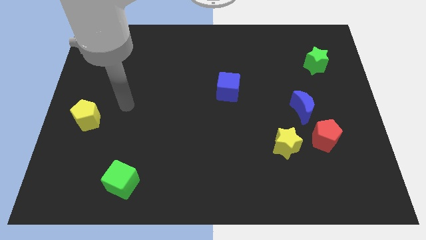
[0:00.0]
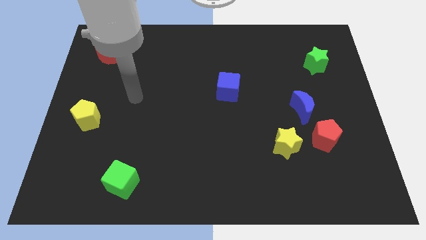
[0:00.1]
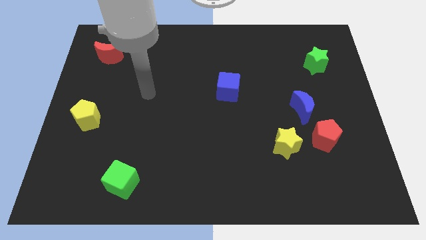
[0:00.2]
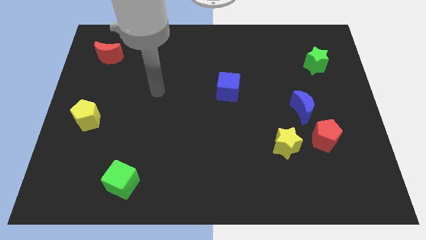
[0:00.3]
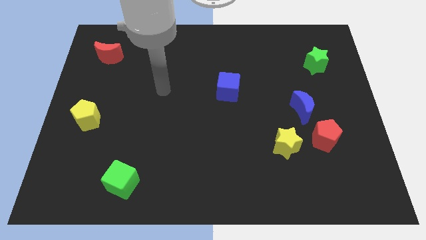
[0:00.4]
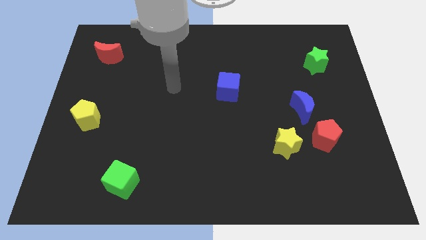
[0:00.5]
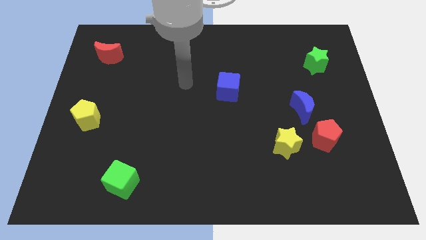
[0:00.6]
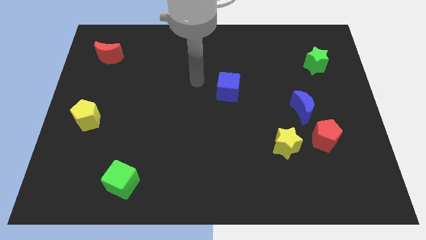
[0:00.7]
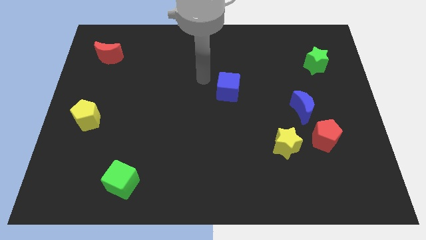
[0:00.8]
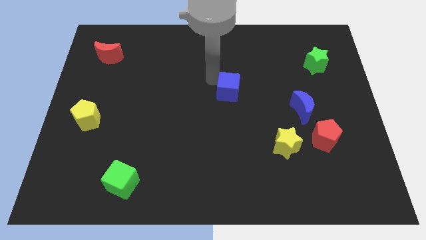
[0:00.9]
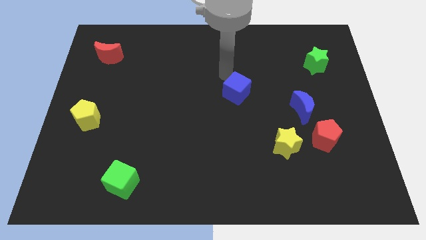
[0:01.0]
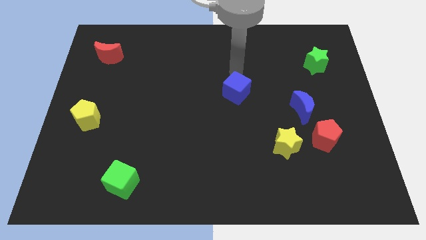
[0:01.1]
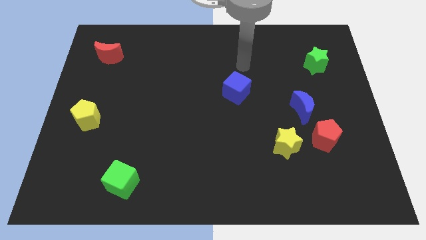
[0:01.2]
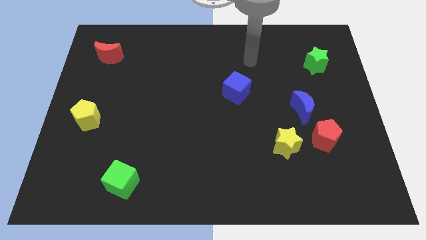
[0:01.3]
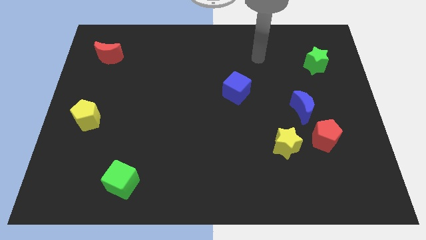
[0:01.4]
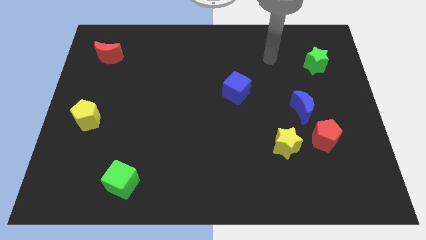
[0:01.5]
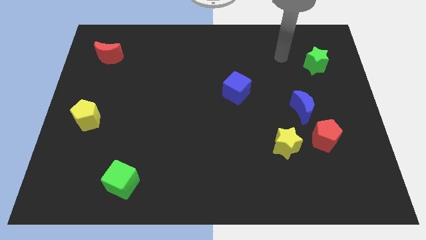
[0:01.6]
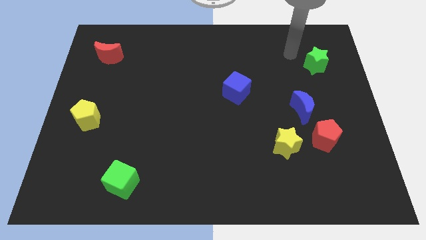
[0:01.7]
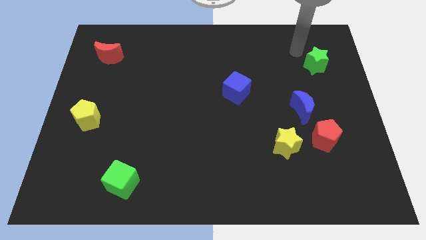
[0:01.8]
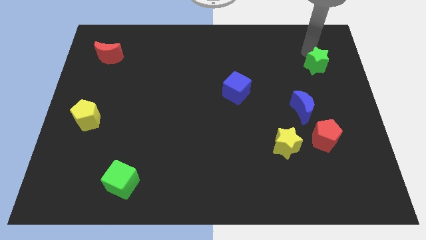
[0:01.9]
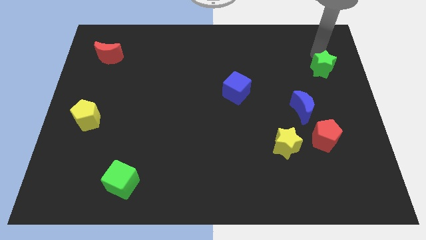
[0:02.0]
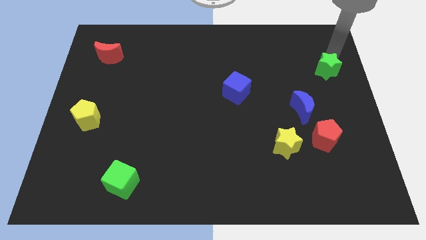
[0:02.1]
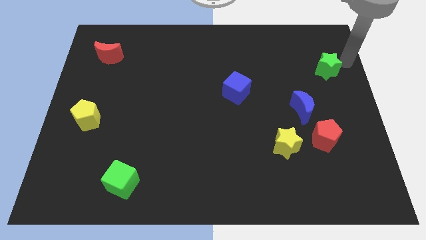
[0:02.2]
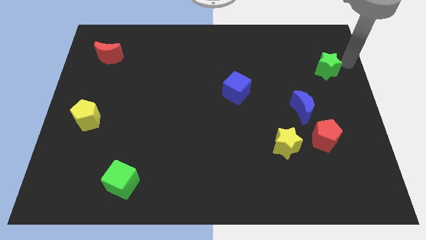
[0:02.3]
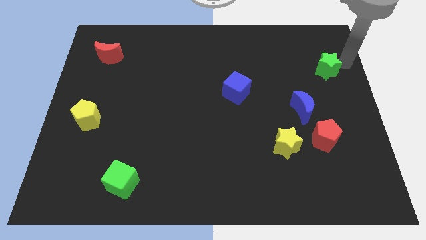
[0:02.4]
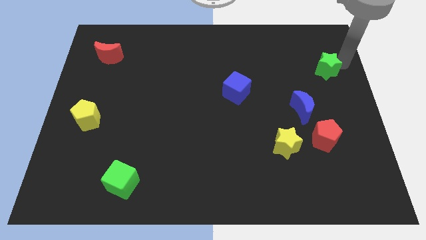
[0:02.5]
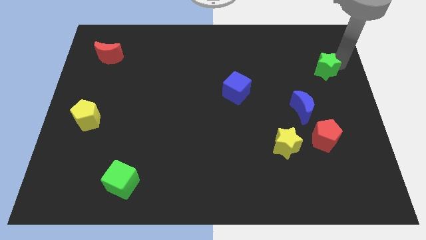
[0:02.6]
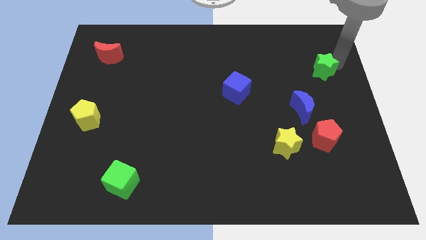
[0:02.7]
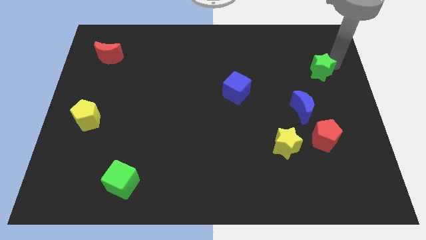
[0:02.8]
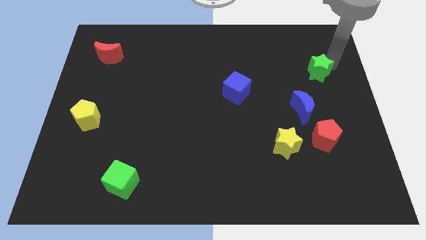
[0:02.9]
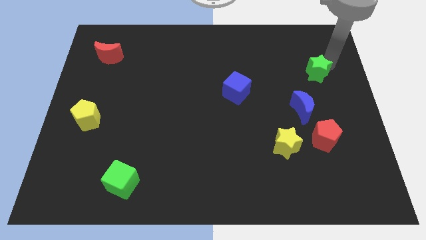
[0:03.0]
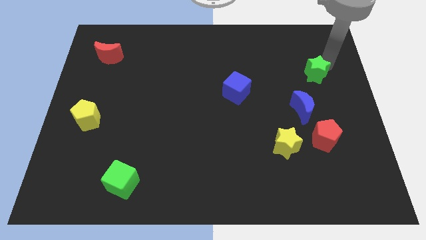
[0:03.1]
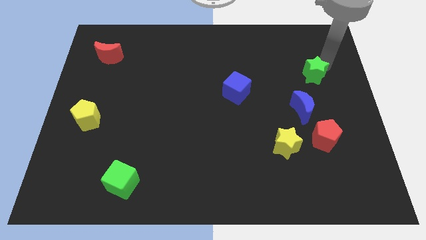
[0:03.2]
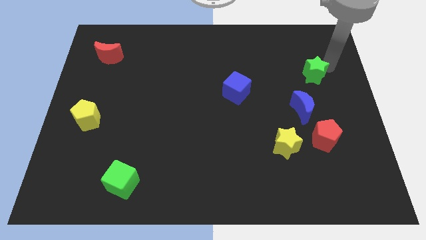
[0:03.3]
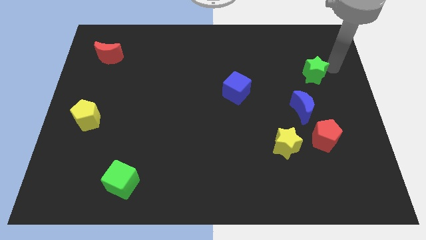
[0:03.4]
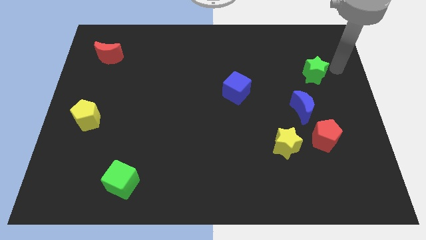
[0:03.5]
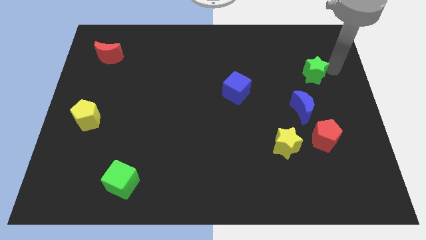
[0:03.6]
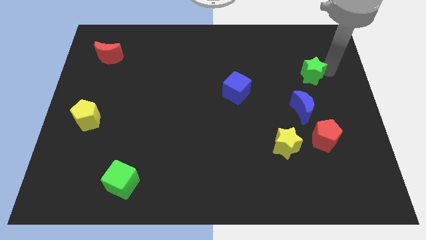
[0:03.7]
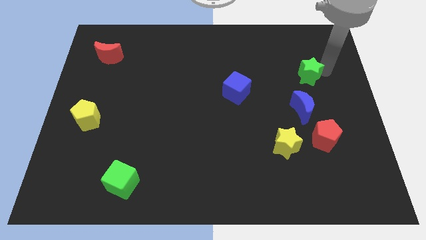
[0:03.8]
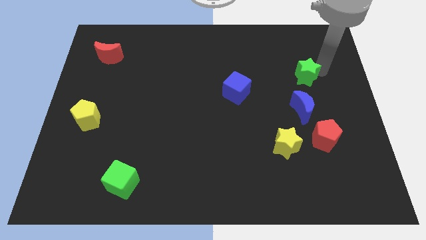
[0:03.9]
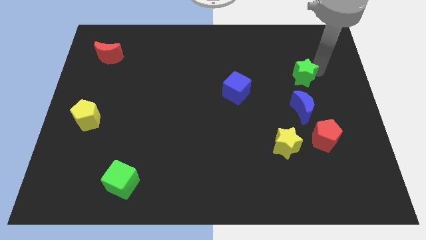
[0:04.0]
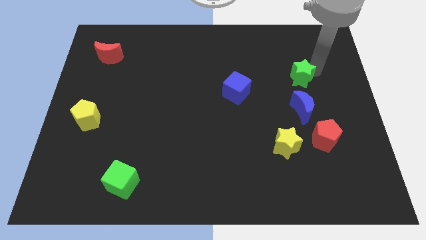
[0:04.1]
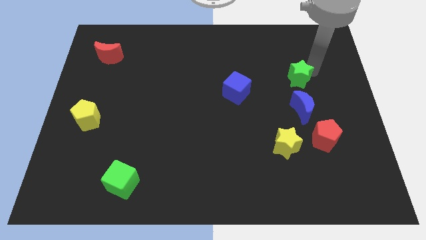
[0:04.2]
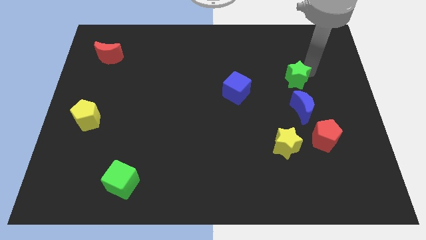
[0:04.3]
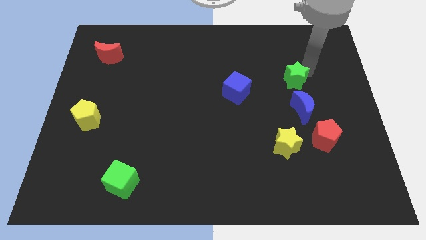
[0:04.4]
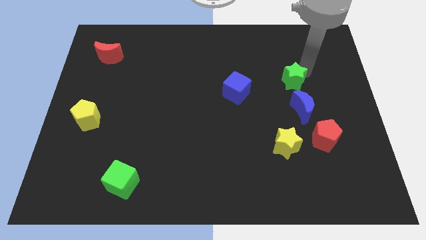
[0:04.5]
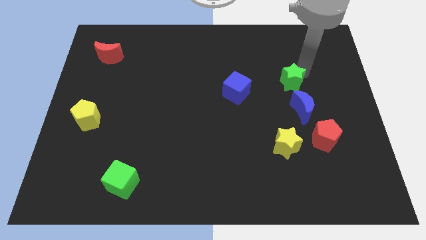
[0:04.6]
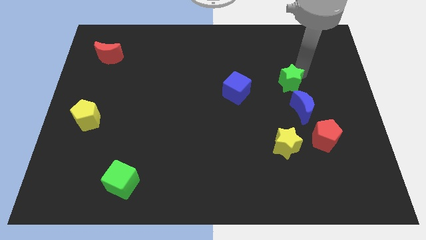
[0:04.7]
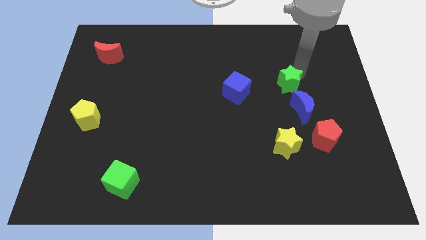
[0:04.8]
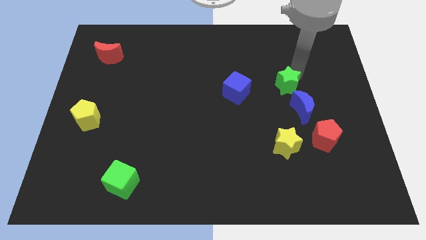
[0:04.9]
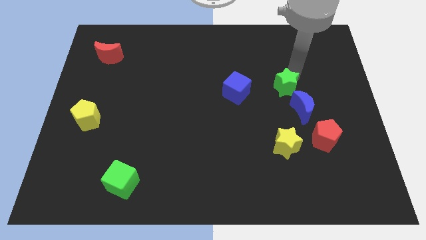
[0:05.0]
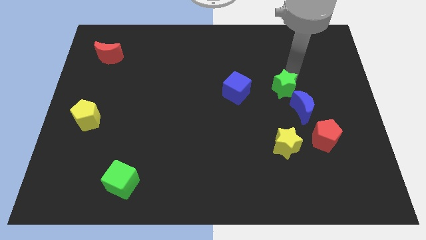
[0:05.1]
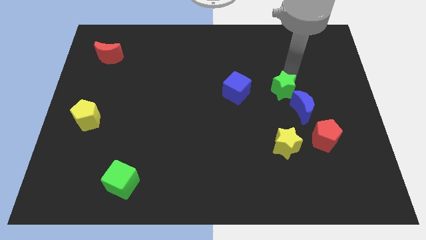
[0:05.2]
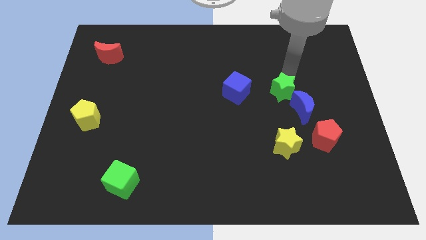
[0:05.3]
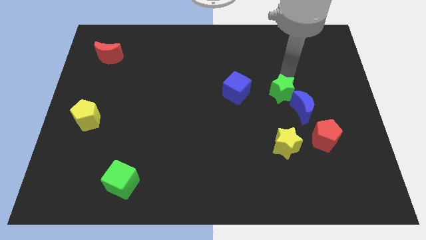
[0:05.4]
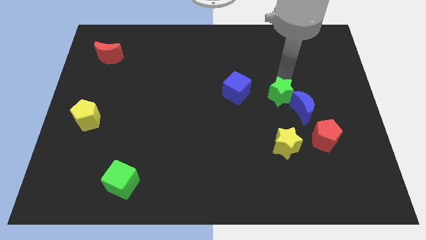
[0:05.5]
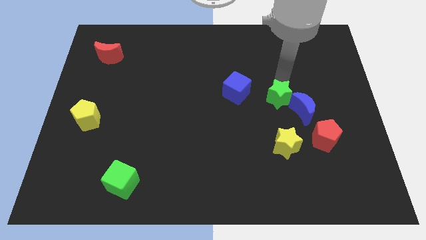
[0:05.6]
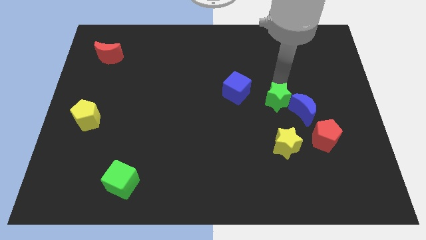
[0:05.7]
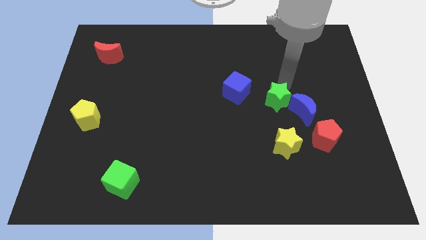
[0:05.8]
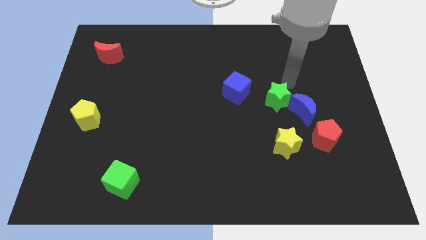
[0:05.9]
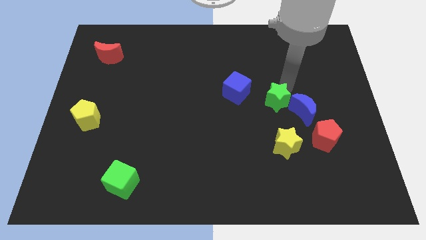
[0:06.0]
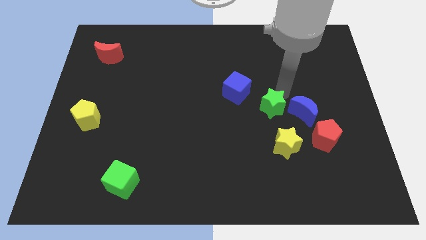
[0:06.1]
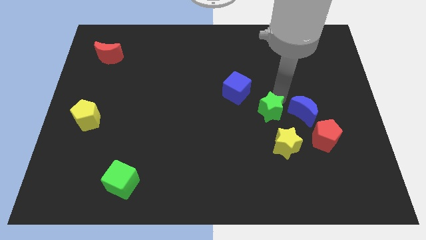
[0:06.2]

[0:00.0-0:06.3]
push the green star diagonally down and left

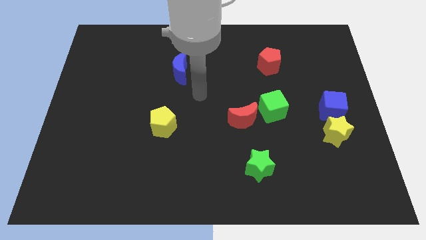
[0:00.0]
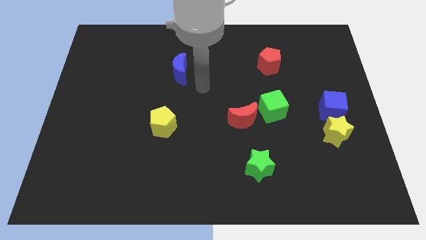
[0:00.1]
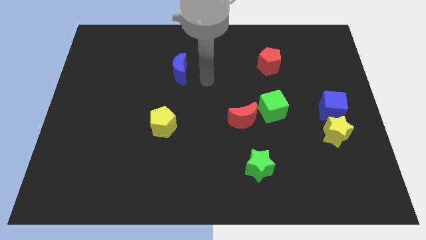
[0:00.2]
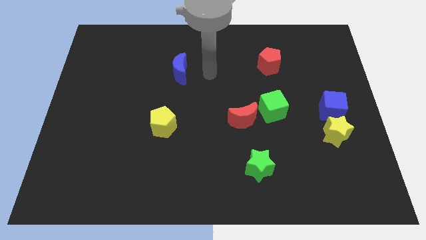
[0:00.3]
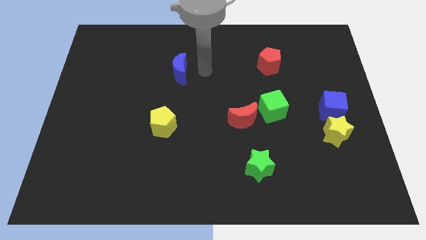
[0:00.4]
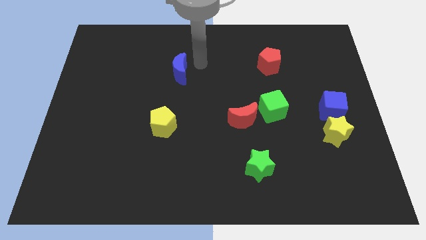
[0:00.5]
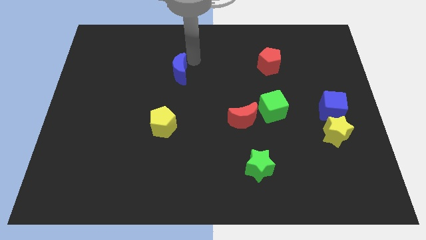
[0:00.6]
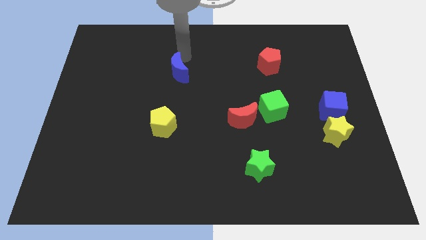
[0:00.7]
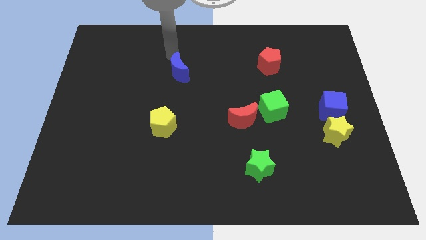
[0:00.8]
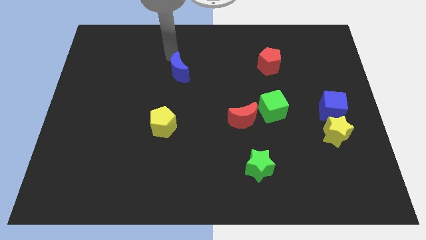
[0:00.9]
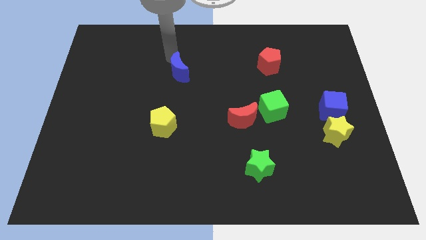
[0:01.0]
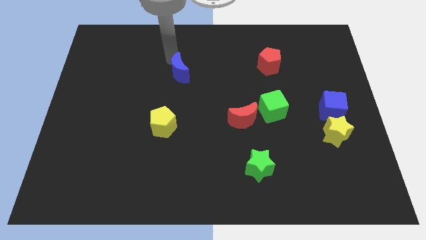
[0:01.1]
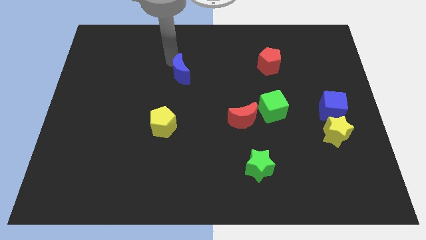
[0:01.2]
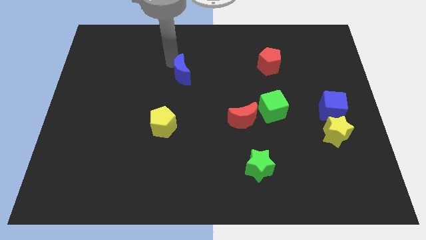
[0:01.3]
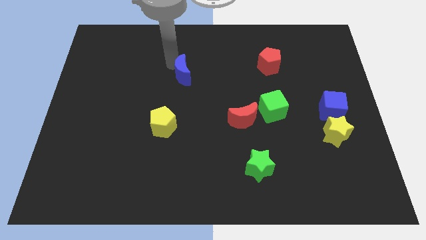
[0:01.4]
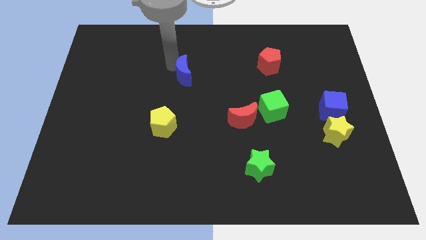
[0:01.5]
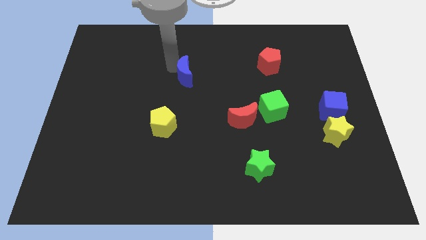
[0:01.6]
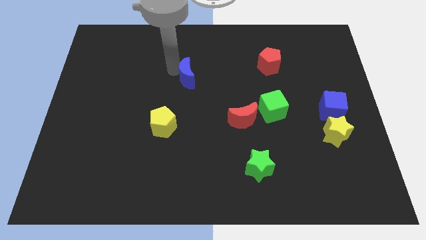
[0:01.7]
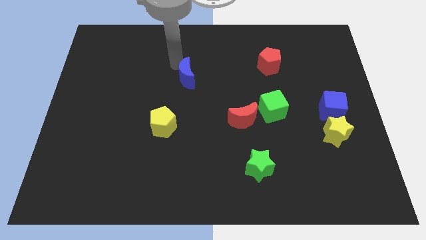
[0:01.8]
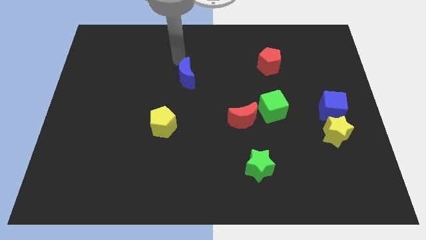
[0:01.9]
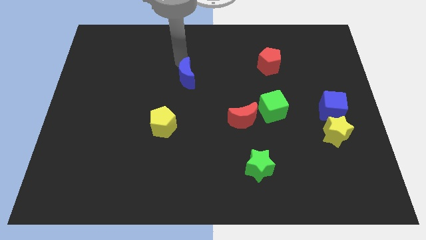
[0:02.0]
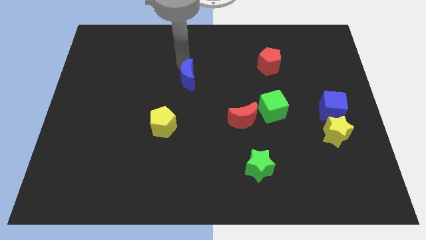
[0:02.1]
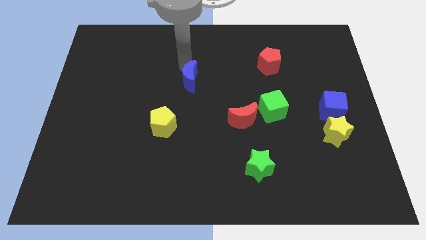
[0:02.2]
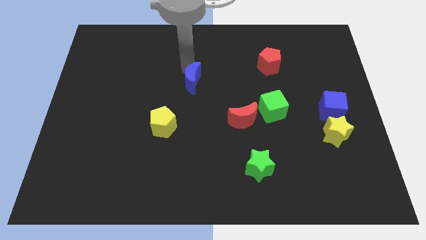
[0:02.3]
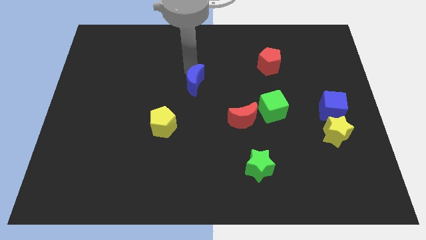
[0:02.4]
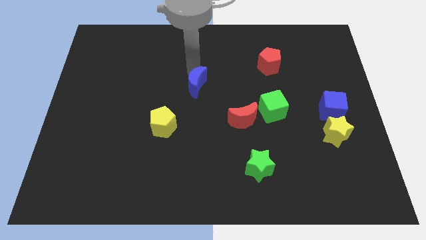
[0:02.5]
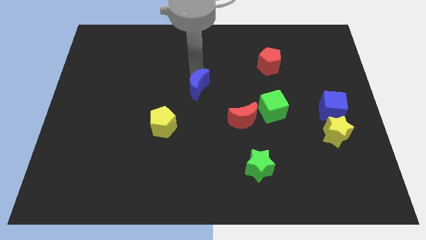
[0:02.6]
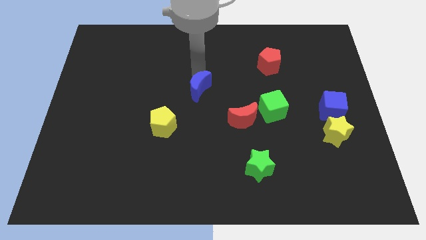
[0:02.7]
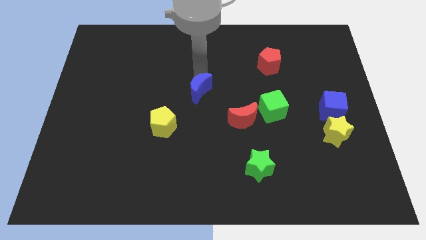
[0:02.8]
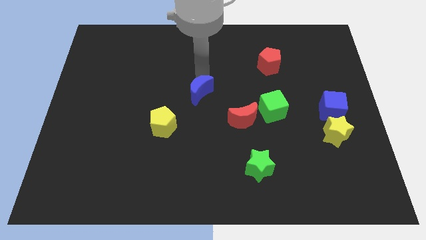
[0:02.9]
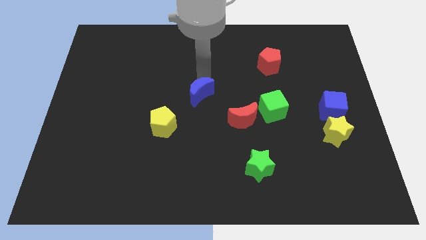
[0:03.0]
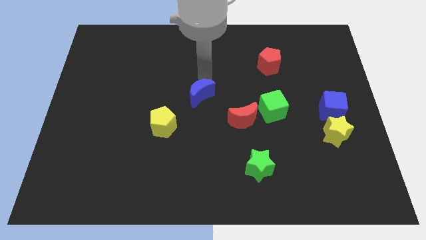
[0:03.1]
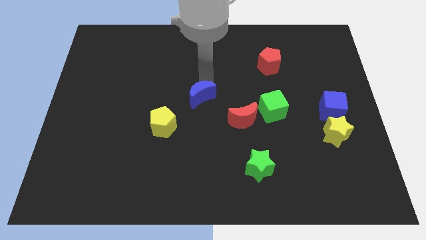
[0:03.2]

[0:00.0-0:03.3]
push the blue moon slightly downwards
